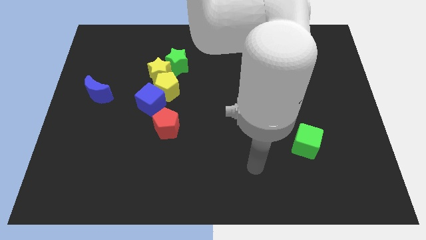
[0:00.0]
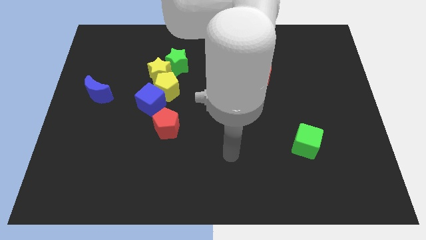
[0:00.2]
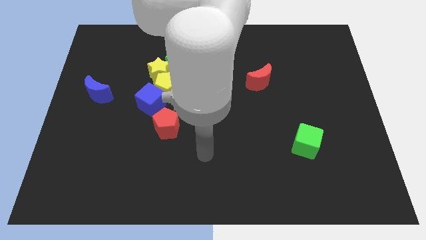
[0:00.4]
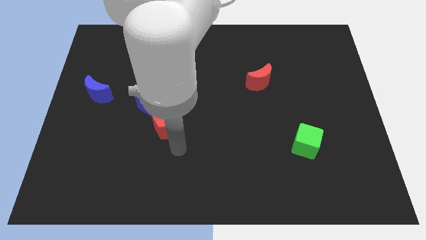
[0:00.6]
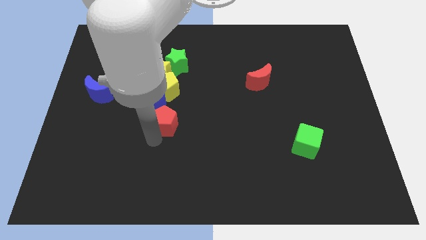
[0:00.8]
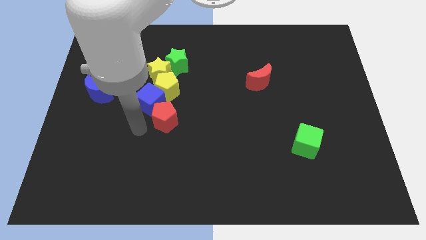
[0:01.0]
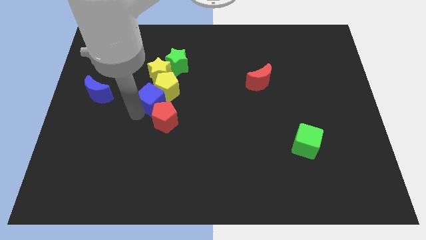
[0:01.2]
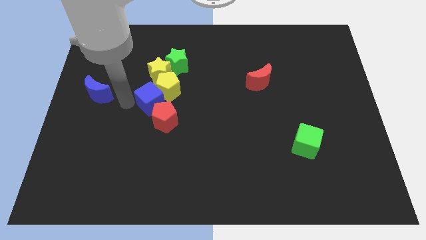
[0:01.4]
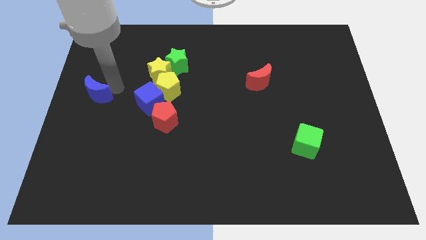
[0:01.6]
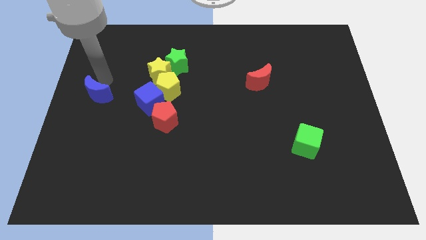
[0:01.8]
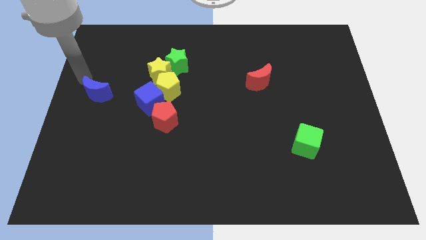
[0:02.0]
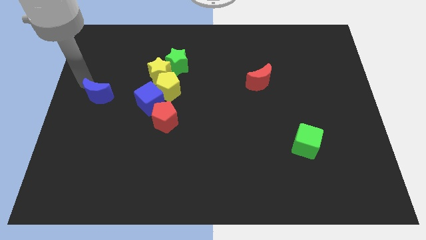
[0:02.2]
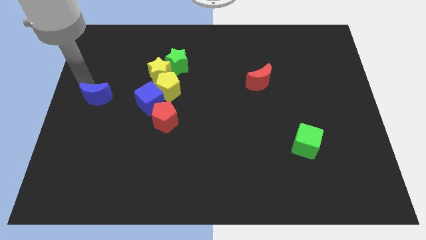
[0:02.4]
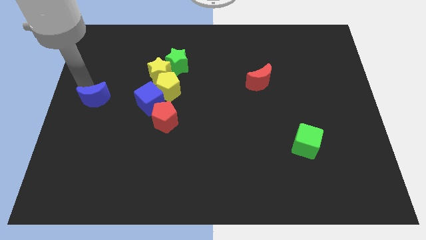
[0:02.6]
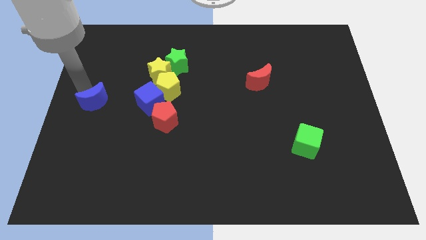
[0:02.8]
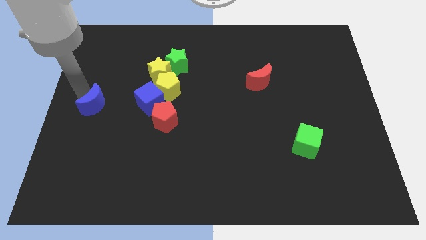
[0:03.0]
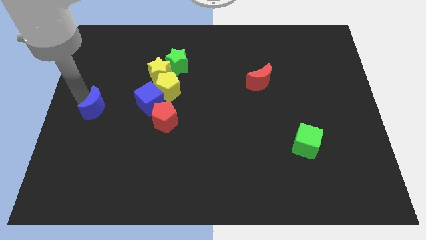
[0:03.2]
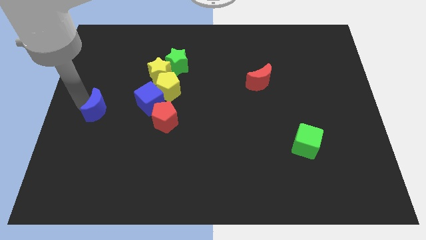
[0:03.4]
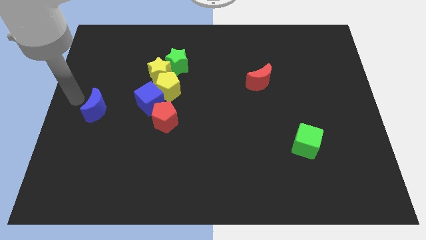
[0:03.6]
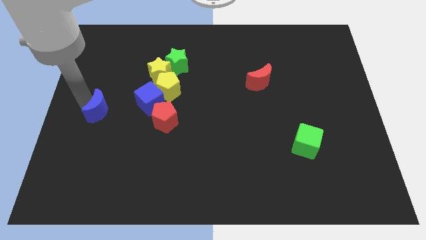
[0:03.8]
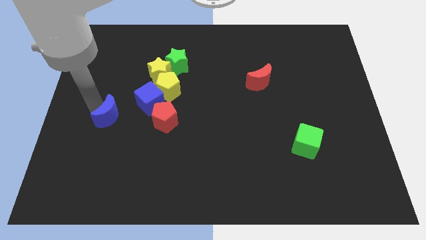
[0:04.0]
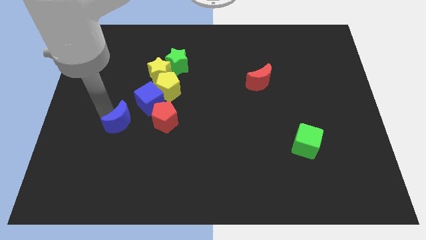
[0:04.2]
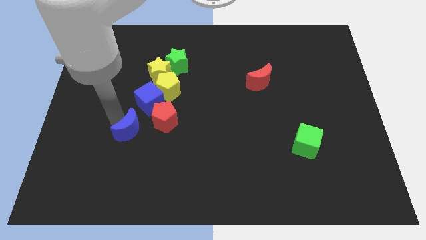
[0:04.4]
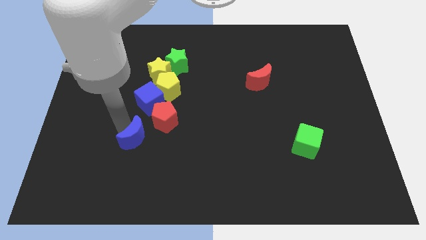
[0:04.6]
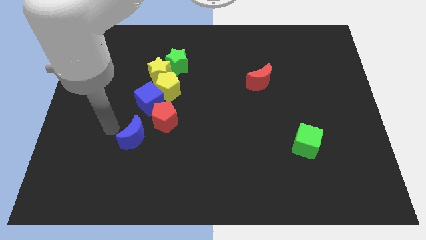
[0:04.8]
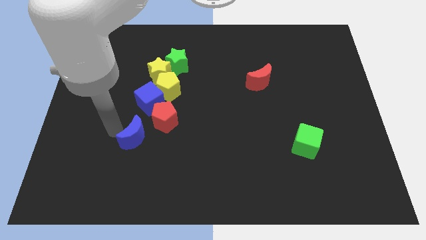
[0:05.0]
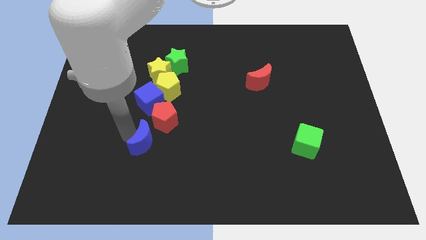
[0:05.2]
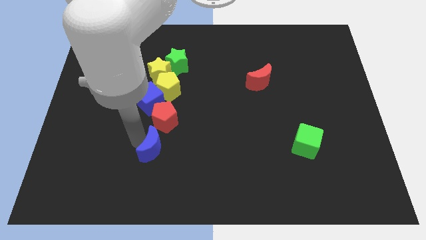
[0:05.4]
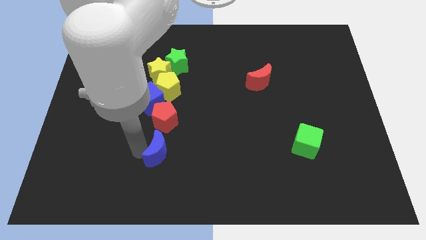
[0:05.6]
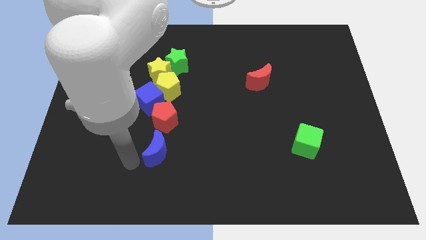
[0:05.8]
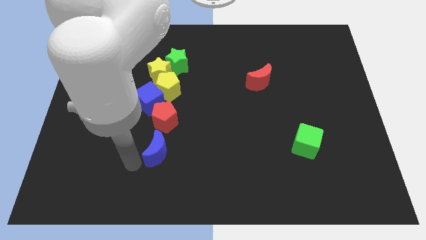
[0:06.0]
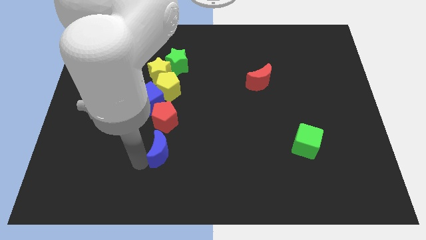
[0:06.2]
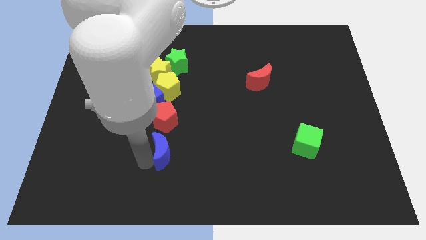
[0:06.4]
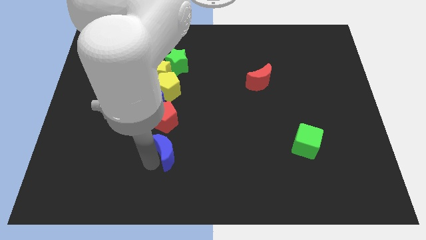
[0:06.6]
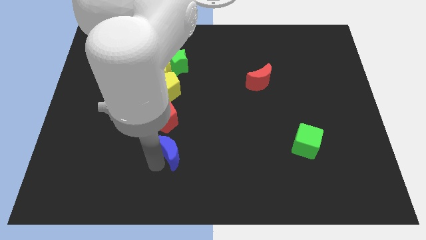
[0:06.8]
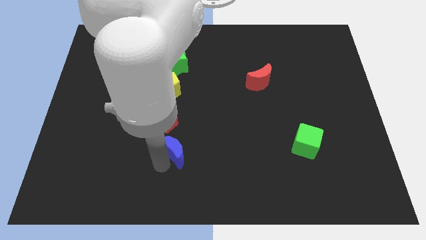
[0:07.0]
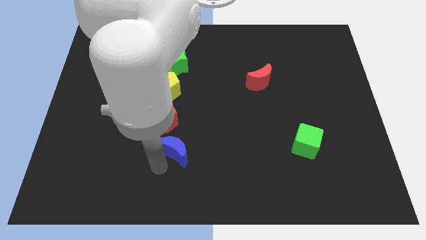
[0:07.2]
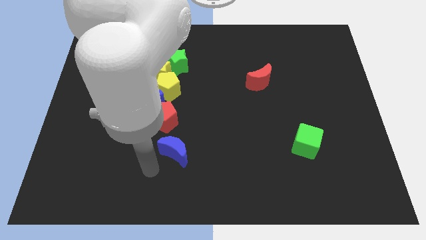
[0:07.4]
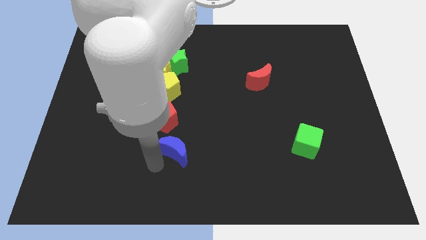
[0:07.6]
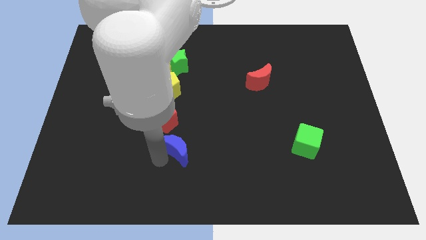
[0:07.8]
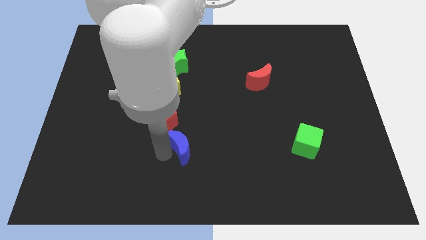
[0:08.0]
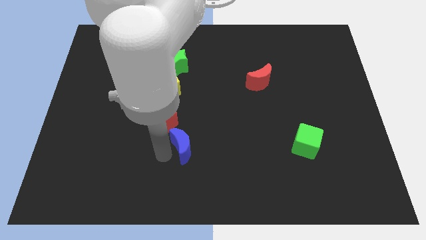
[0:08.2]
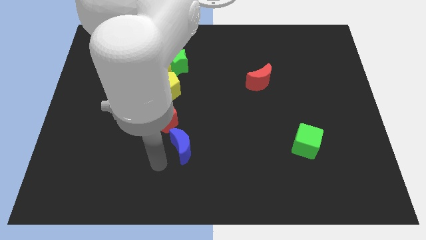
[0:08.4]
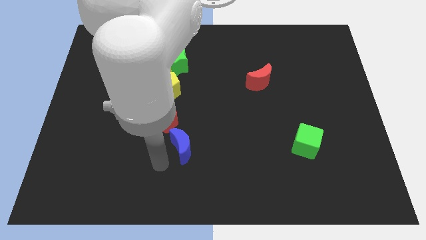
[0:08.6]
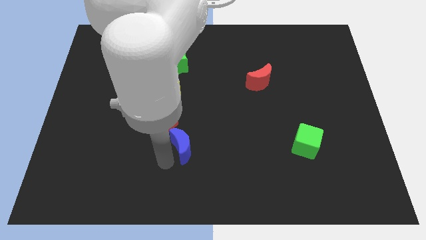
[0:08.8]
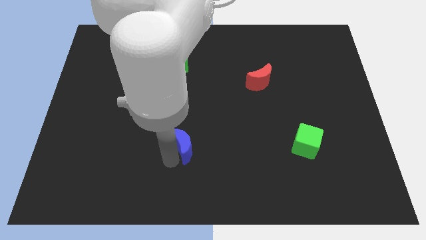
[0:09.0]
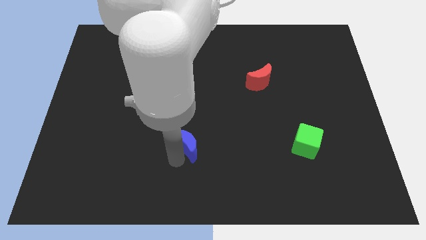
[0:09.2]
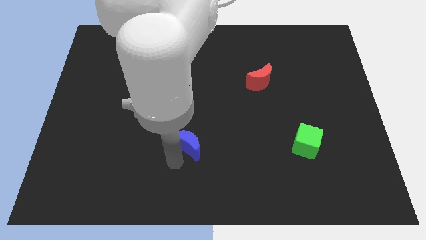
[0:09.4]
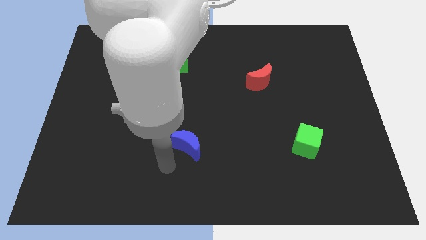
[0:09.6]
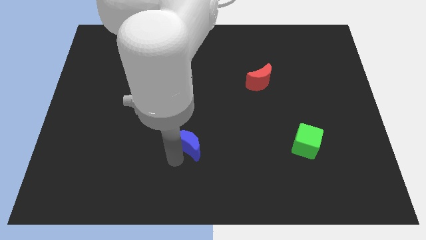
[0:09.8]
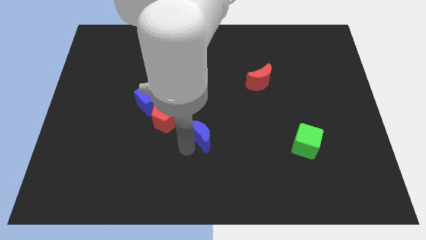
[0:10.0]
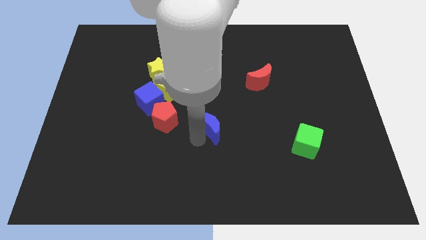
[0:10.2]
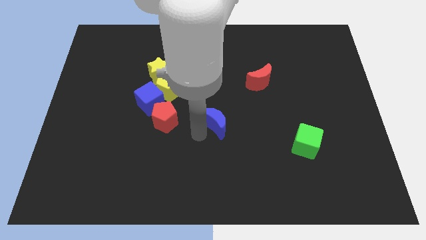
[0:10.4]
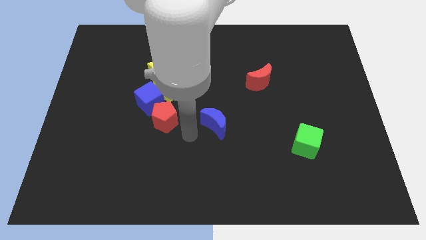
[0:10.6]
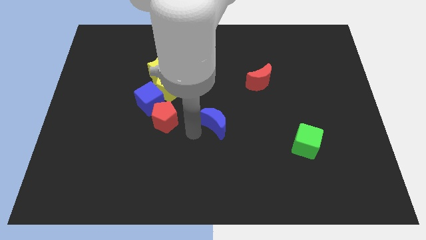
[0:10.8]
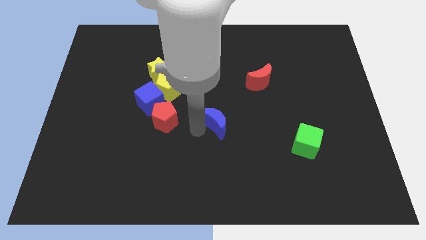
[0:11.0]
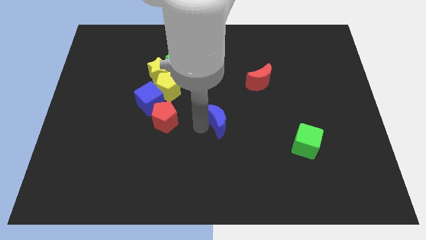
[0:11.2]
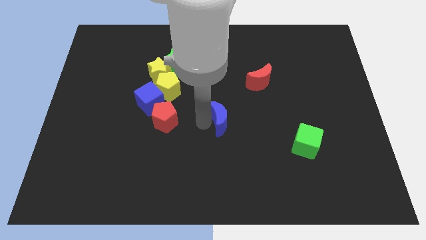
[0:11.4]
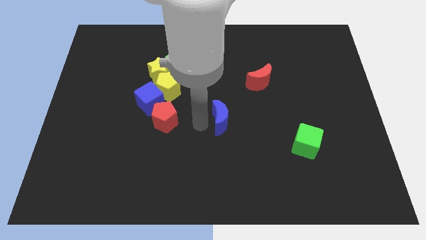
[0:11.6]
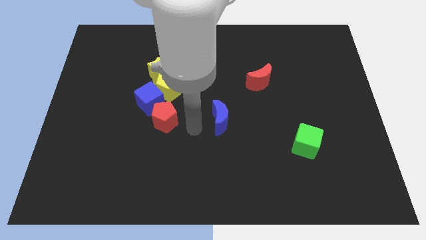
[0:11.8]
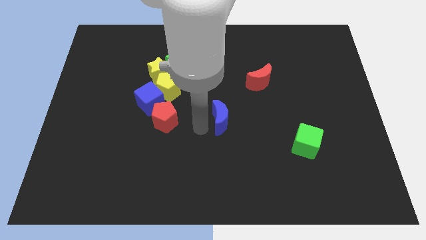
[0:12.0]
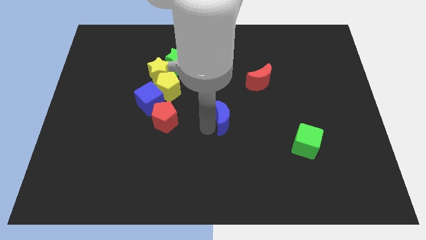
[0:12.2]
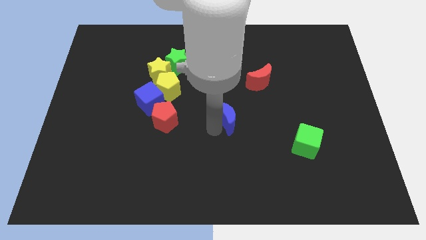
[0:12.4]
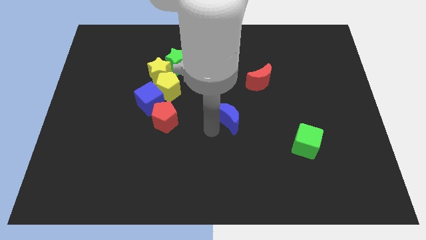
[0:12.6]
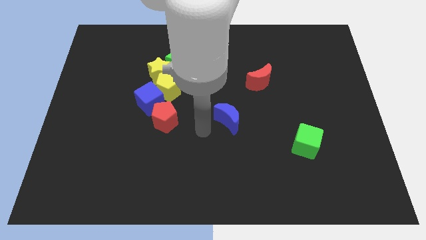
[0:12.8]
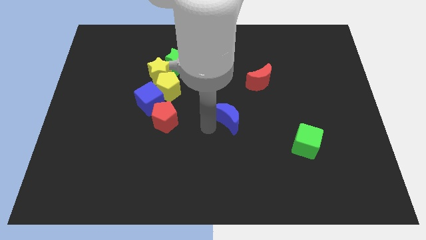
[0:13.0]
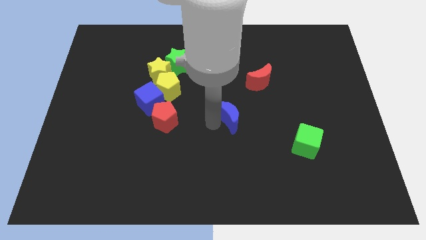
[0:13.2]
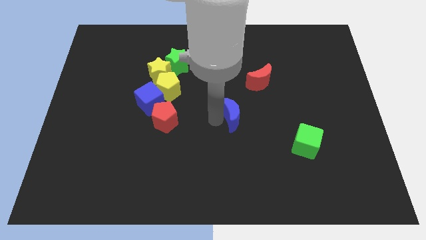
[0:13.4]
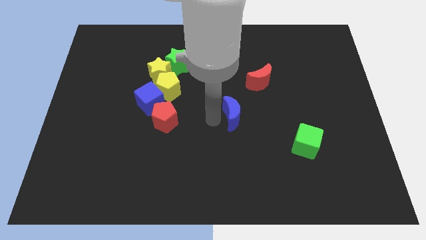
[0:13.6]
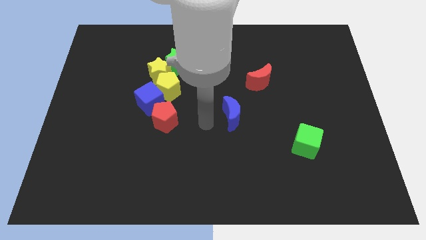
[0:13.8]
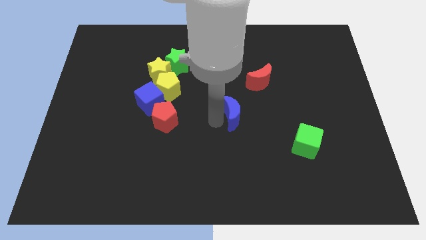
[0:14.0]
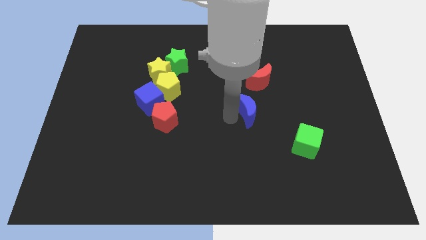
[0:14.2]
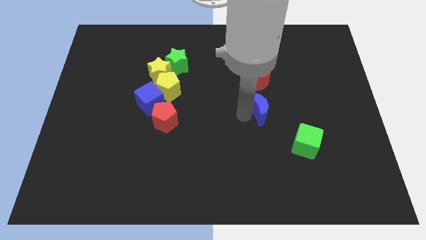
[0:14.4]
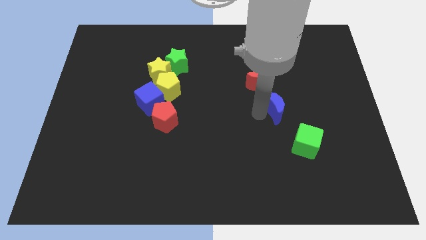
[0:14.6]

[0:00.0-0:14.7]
push the blue moon diagonally down and to the right of the red moon
